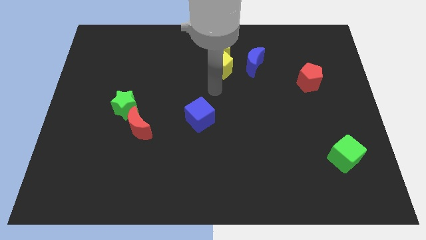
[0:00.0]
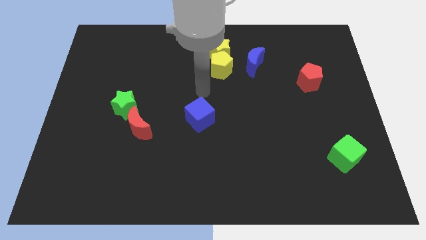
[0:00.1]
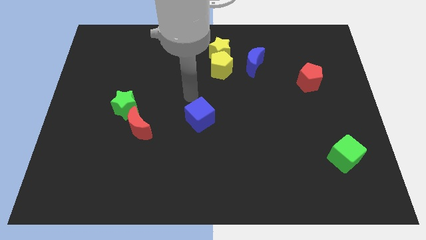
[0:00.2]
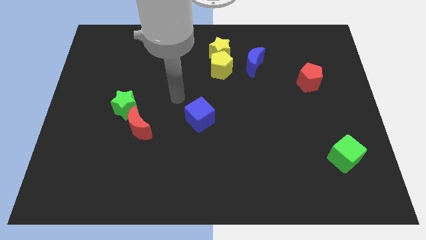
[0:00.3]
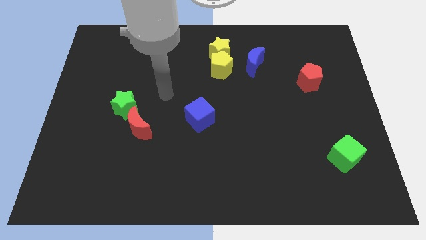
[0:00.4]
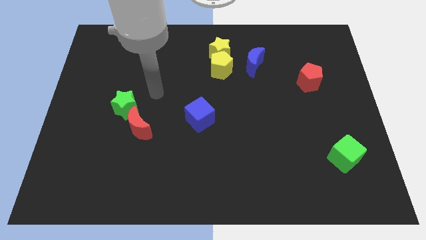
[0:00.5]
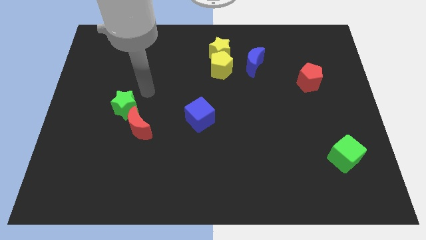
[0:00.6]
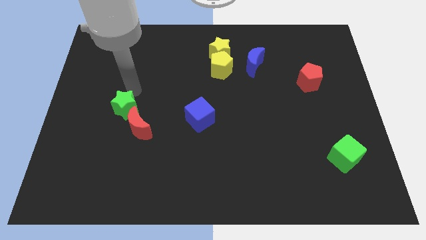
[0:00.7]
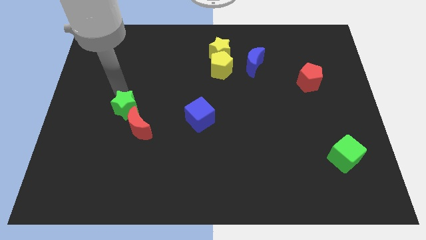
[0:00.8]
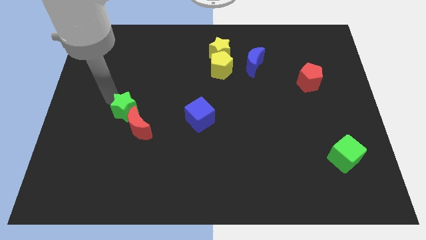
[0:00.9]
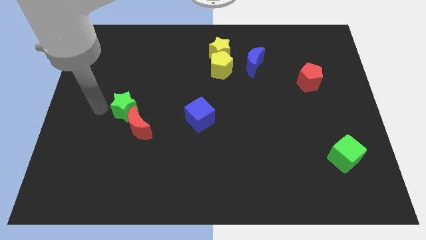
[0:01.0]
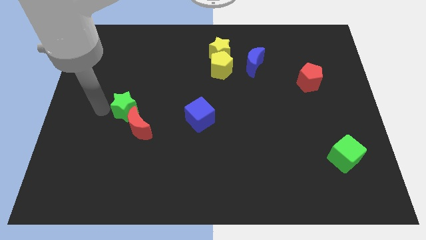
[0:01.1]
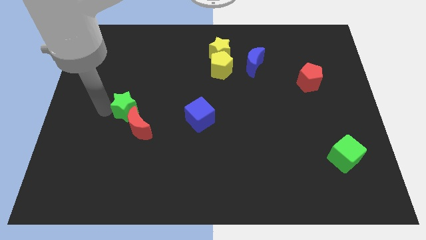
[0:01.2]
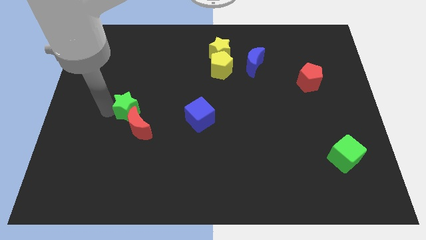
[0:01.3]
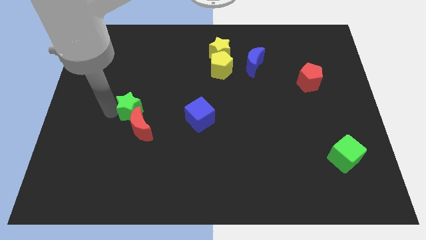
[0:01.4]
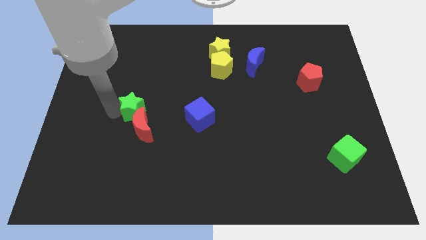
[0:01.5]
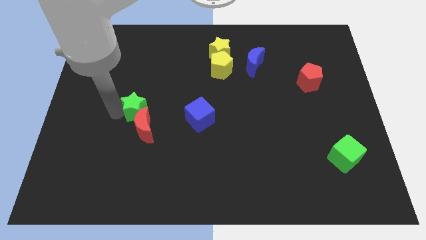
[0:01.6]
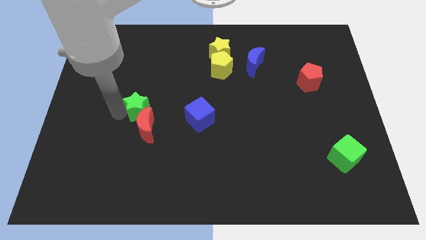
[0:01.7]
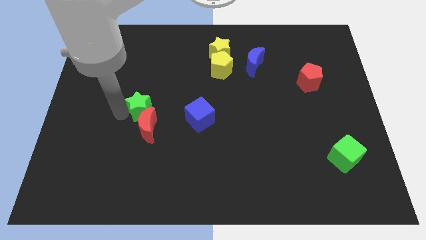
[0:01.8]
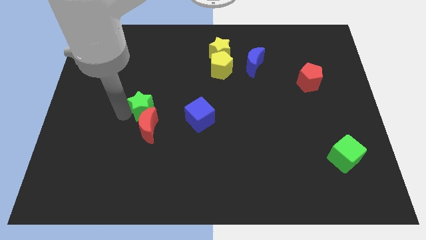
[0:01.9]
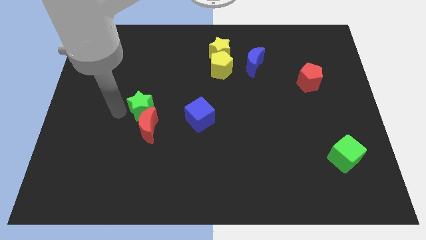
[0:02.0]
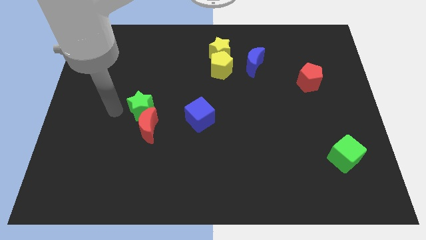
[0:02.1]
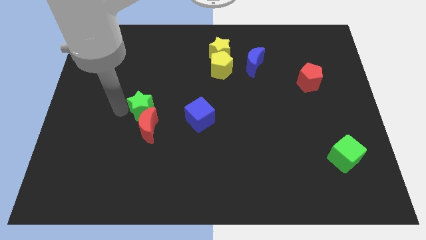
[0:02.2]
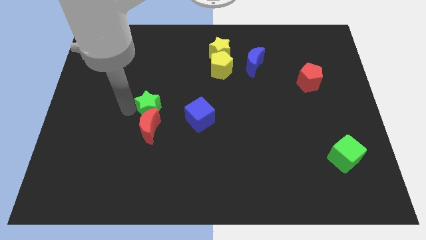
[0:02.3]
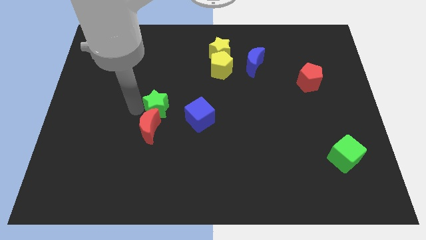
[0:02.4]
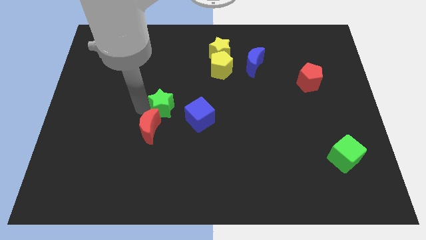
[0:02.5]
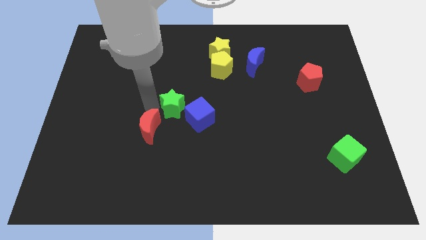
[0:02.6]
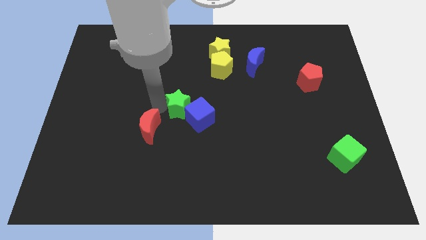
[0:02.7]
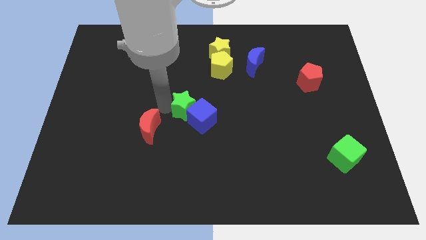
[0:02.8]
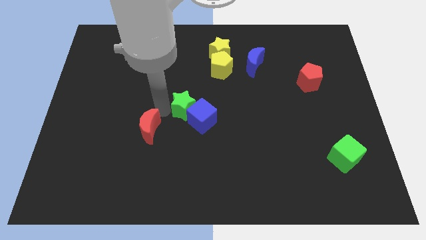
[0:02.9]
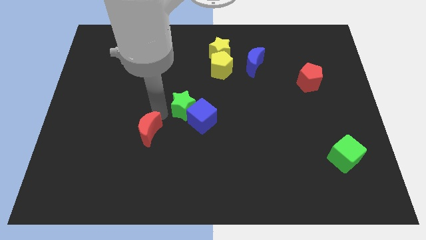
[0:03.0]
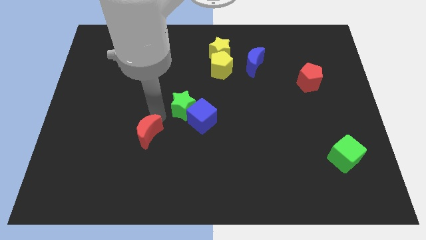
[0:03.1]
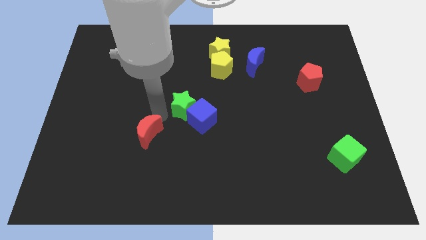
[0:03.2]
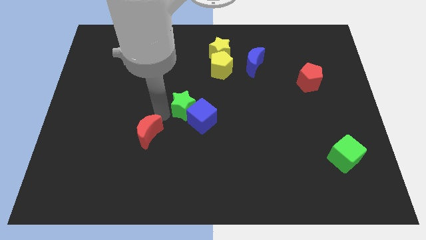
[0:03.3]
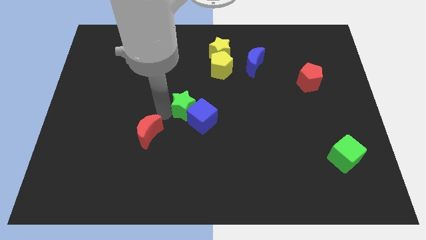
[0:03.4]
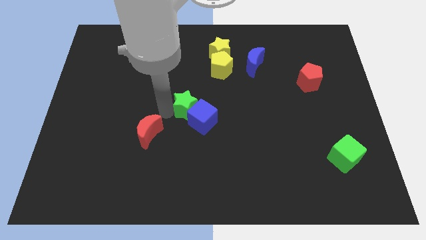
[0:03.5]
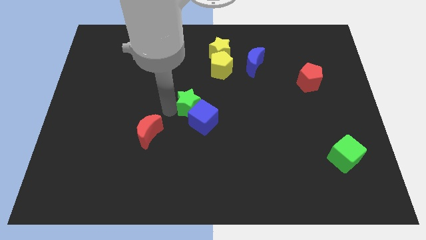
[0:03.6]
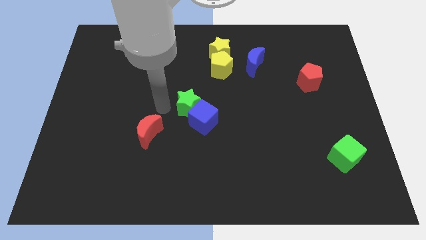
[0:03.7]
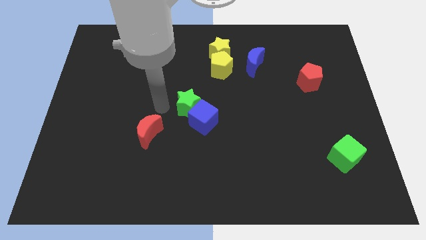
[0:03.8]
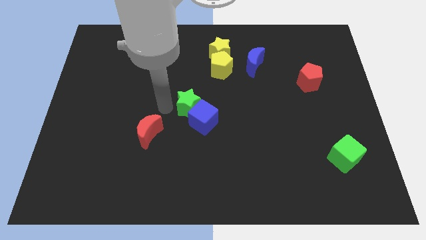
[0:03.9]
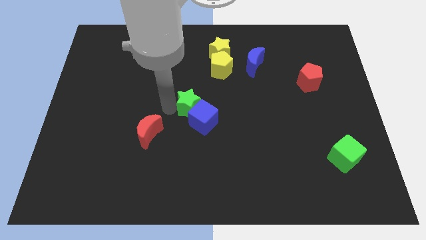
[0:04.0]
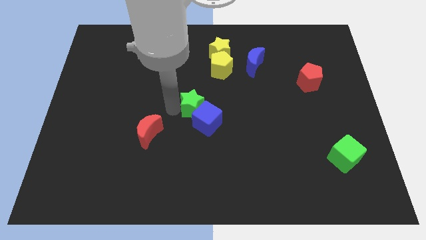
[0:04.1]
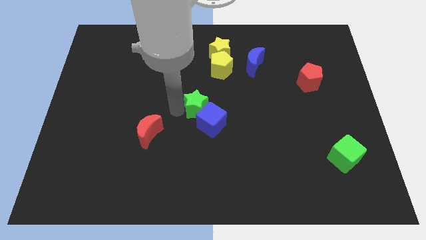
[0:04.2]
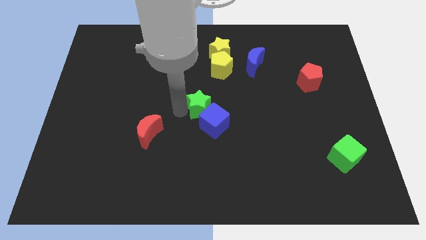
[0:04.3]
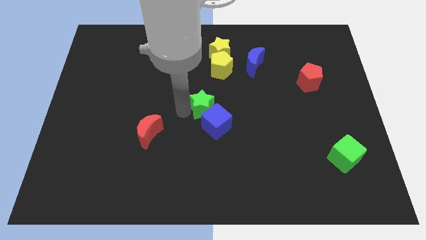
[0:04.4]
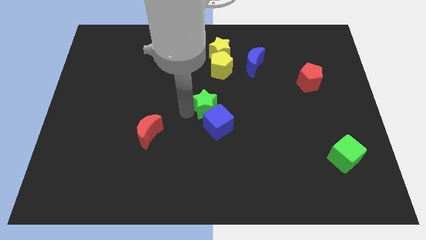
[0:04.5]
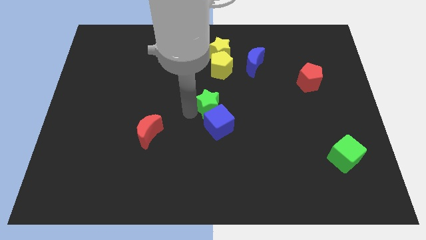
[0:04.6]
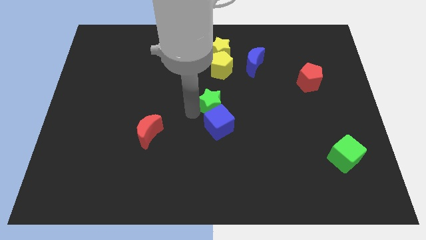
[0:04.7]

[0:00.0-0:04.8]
slide the green star right

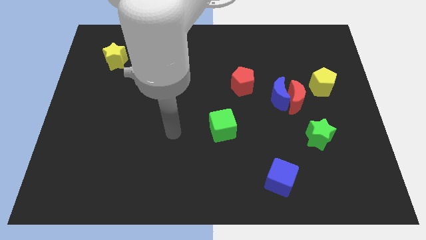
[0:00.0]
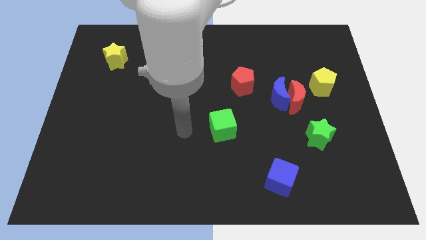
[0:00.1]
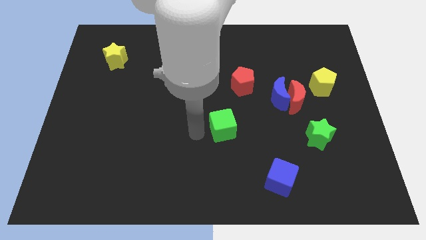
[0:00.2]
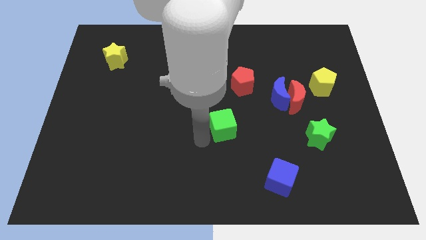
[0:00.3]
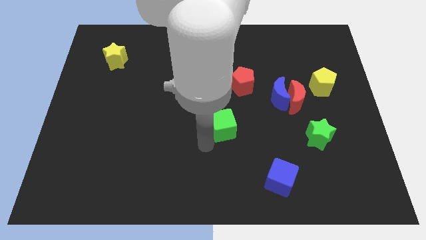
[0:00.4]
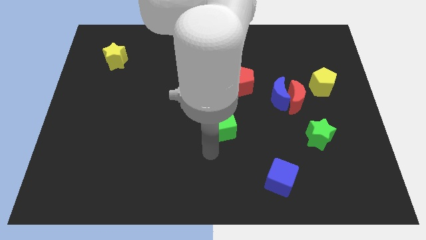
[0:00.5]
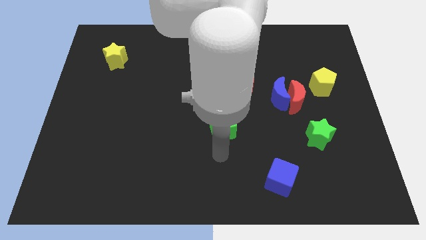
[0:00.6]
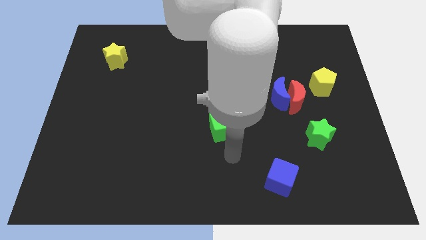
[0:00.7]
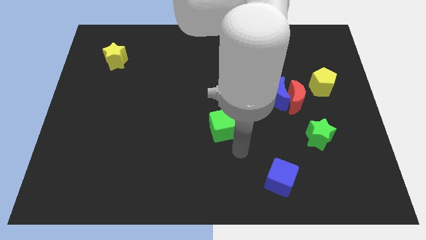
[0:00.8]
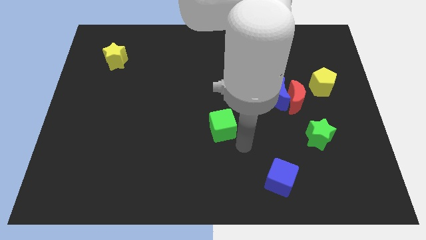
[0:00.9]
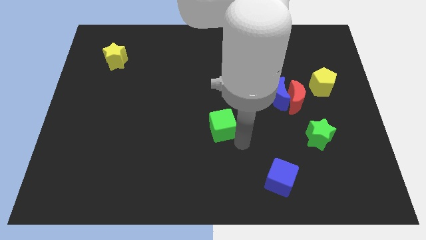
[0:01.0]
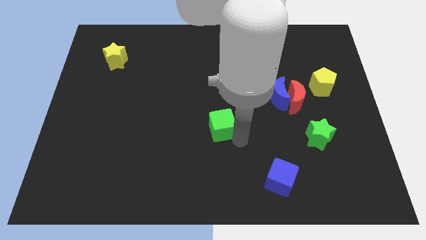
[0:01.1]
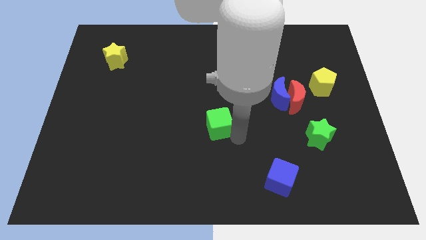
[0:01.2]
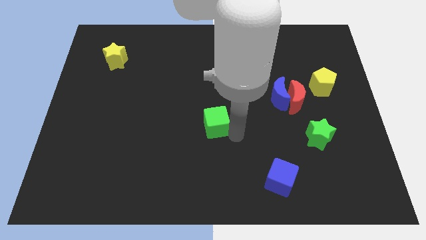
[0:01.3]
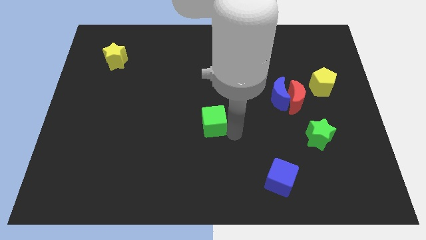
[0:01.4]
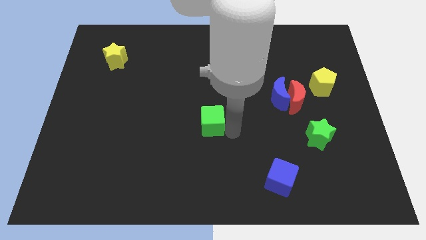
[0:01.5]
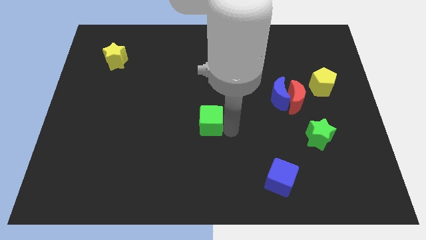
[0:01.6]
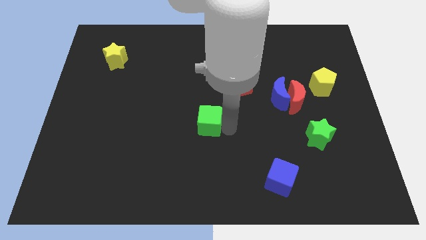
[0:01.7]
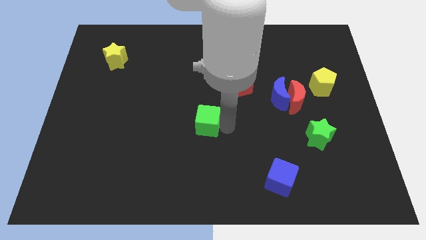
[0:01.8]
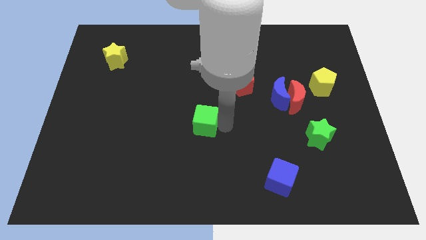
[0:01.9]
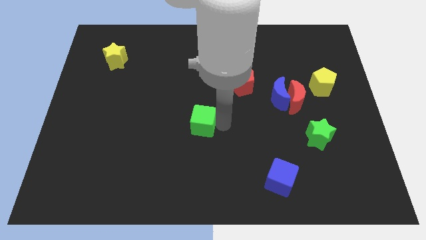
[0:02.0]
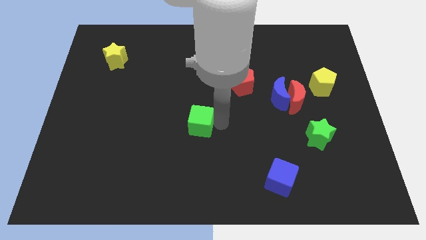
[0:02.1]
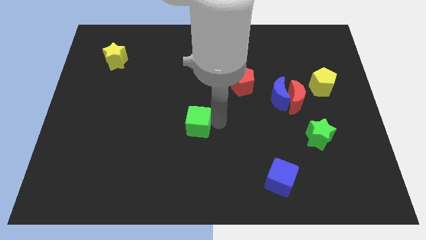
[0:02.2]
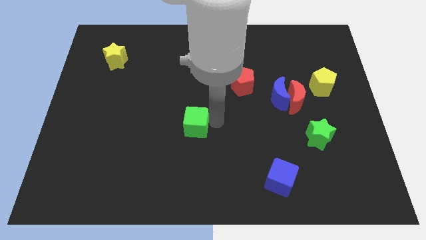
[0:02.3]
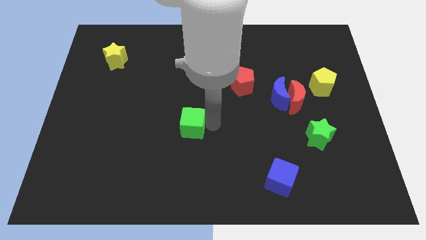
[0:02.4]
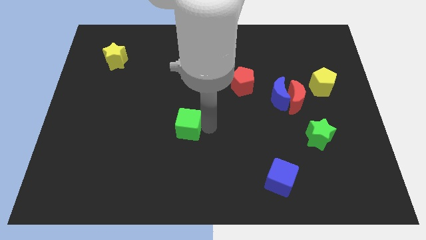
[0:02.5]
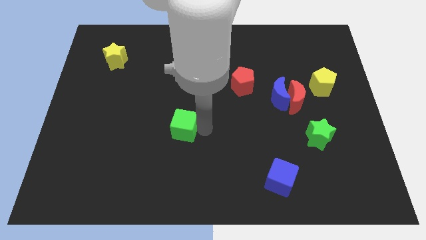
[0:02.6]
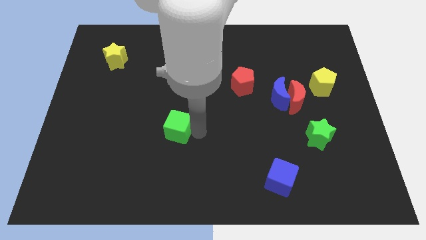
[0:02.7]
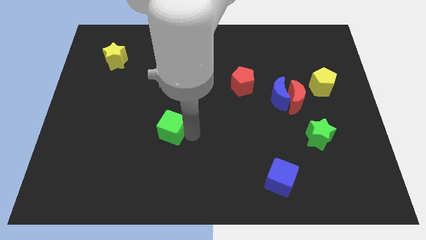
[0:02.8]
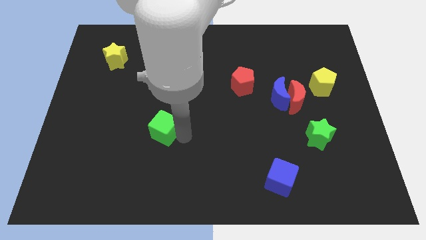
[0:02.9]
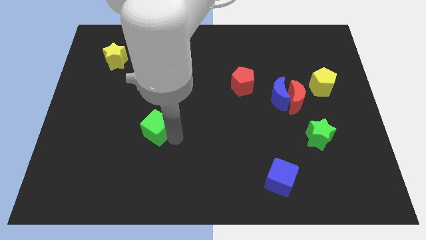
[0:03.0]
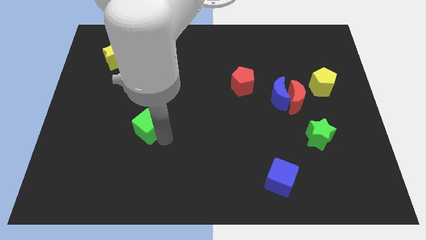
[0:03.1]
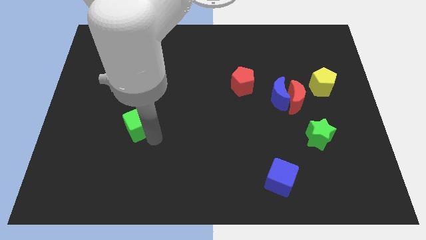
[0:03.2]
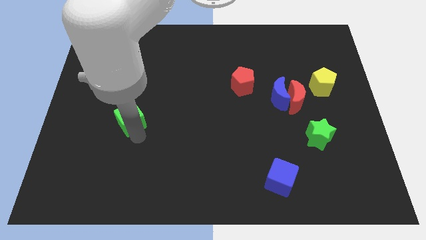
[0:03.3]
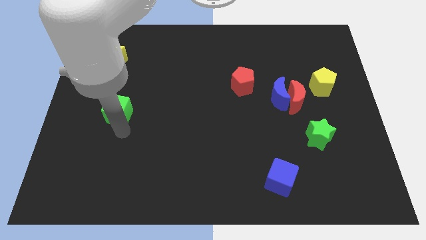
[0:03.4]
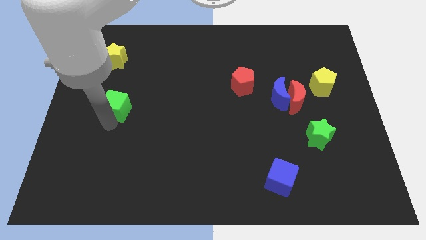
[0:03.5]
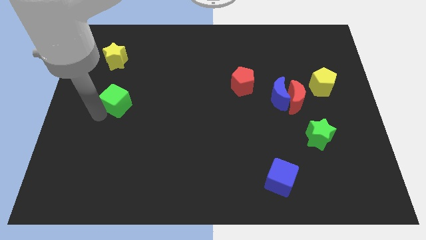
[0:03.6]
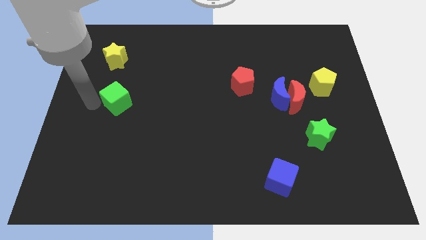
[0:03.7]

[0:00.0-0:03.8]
slightly push the green cube upwards and left
